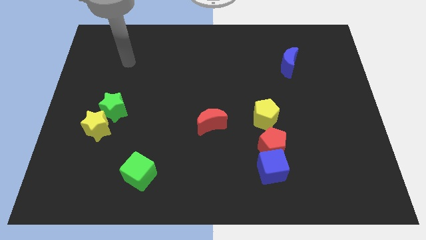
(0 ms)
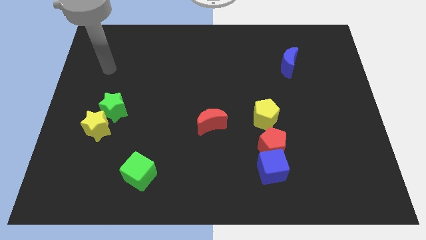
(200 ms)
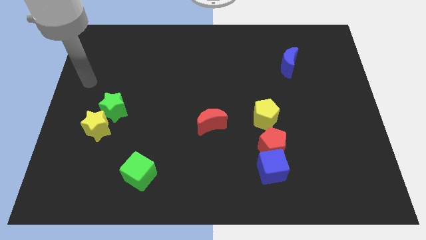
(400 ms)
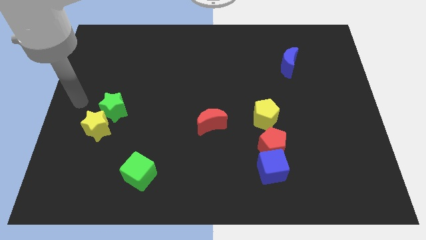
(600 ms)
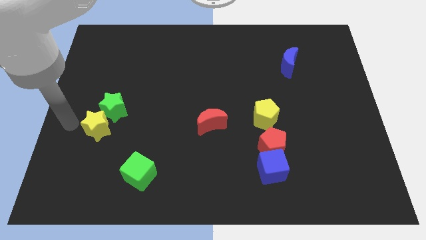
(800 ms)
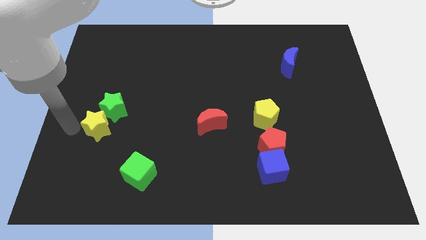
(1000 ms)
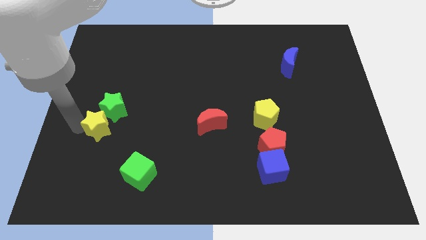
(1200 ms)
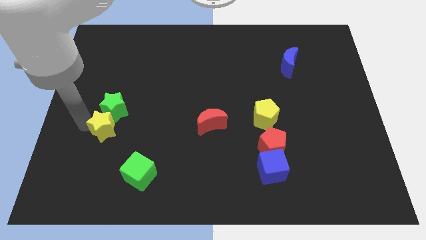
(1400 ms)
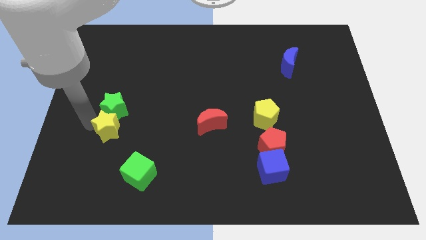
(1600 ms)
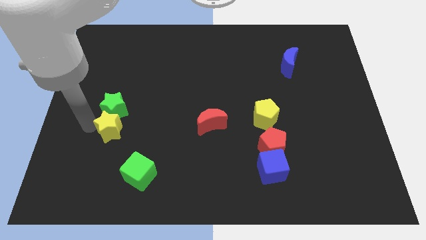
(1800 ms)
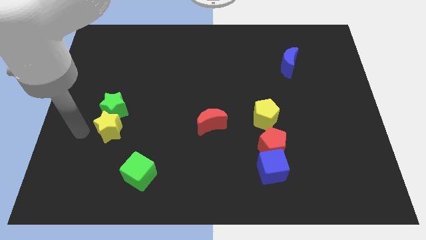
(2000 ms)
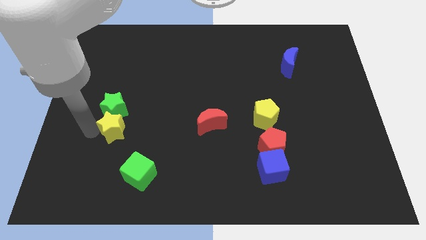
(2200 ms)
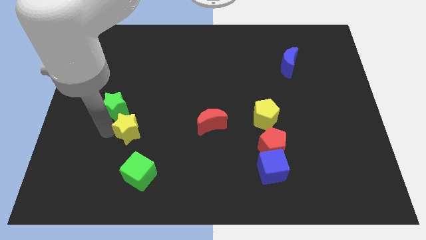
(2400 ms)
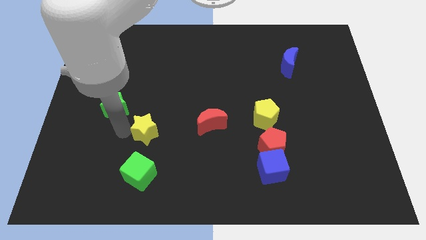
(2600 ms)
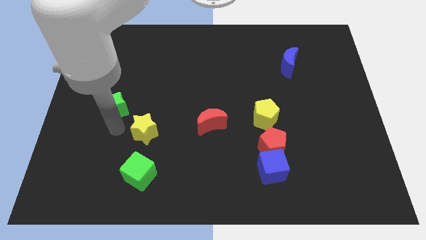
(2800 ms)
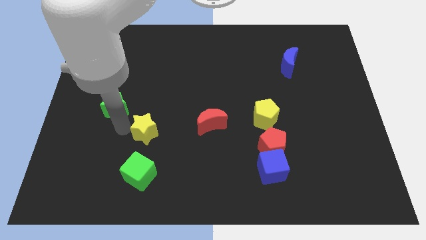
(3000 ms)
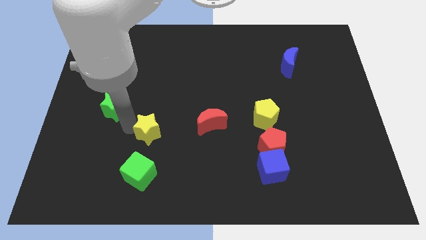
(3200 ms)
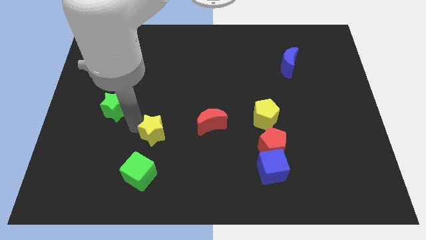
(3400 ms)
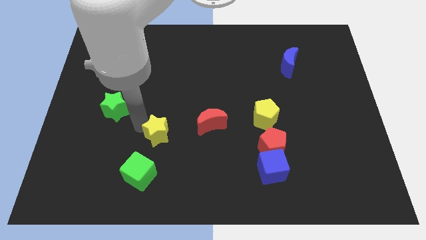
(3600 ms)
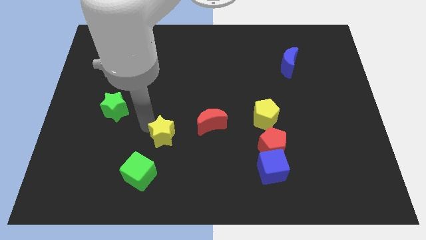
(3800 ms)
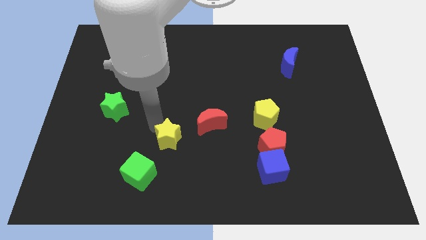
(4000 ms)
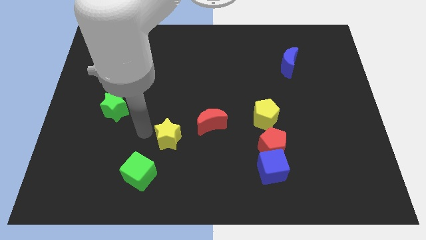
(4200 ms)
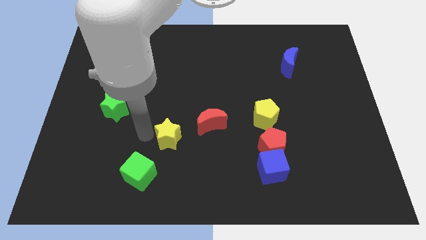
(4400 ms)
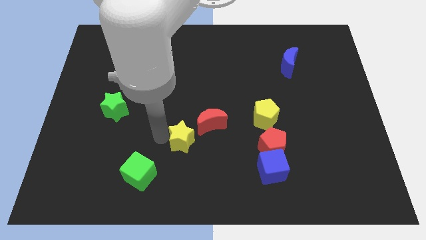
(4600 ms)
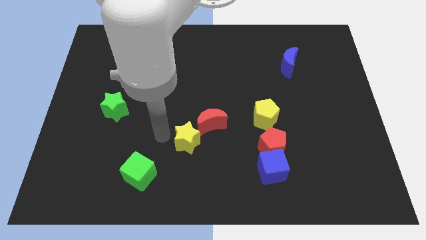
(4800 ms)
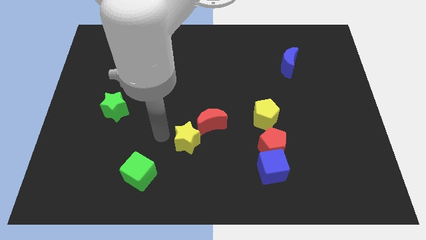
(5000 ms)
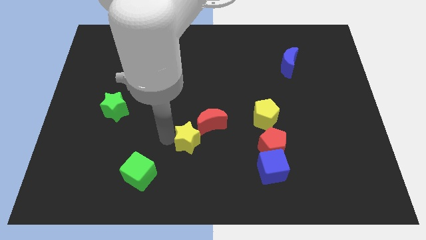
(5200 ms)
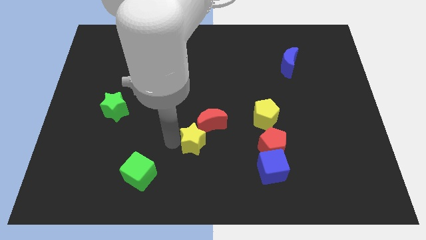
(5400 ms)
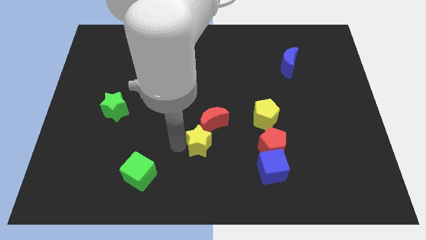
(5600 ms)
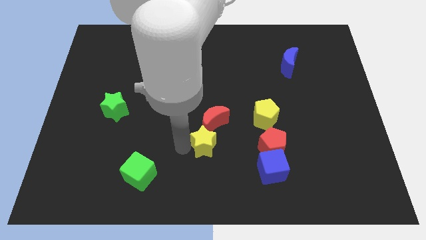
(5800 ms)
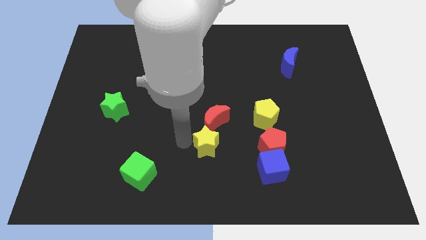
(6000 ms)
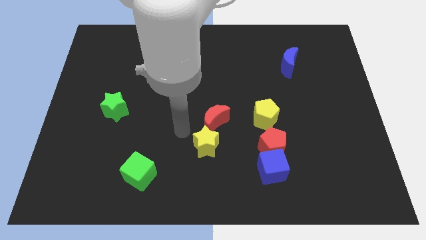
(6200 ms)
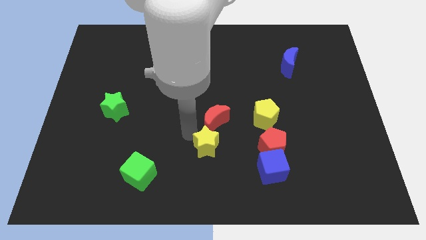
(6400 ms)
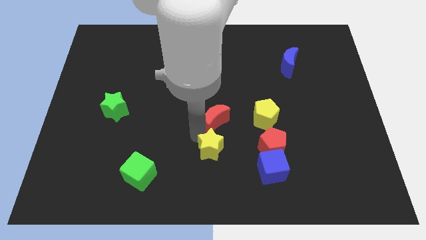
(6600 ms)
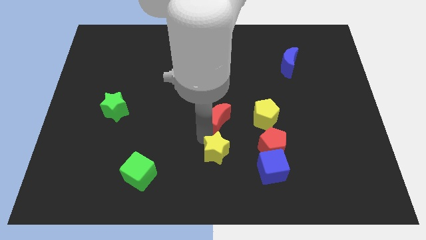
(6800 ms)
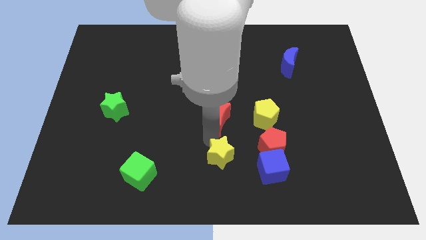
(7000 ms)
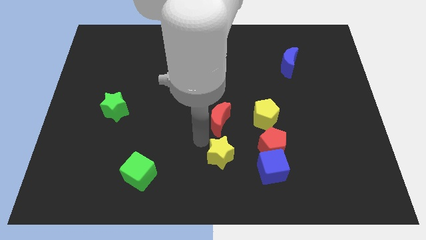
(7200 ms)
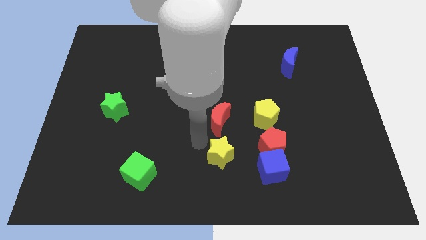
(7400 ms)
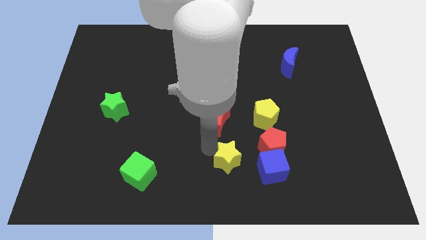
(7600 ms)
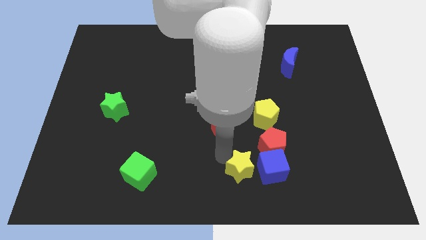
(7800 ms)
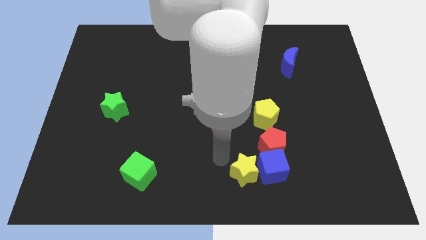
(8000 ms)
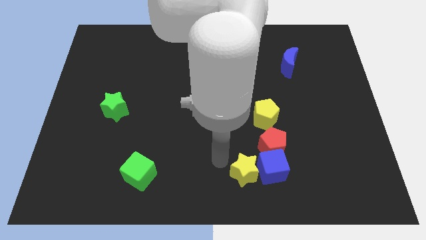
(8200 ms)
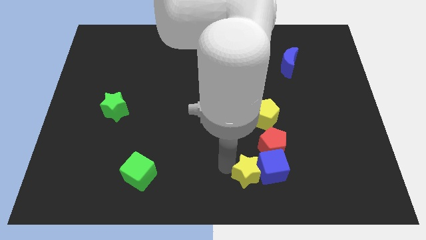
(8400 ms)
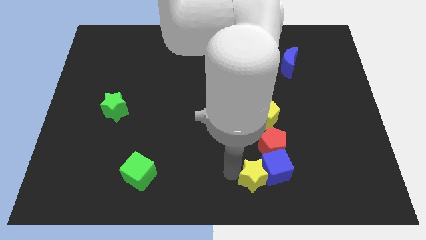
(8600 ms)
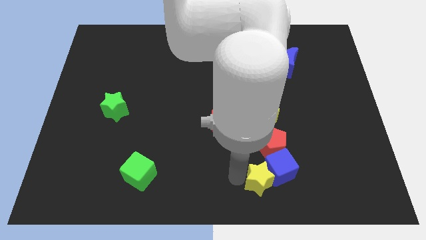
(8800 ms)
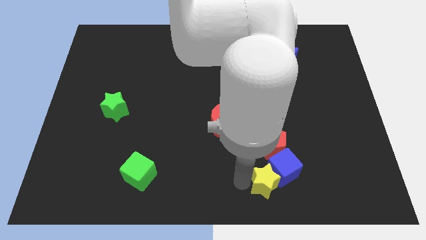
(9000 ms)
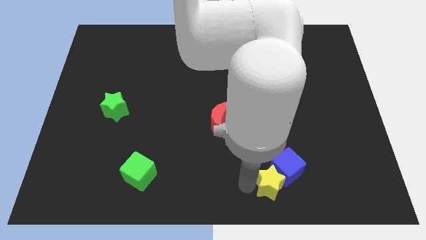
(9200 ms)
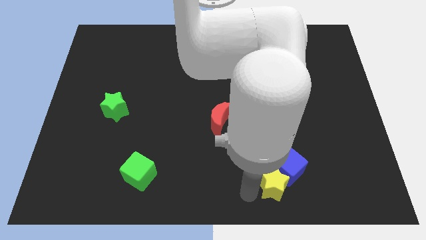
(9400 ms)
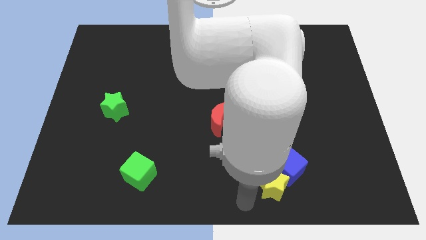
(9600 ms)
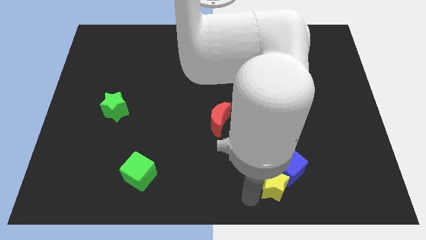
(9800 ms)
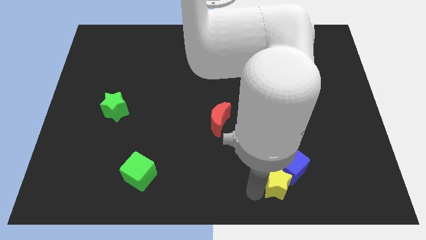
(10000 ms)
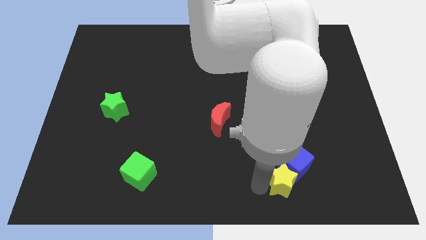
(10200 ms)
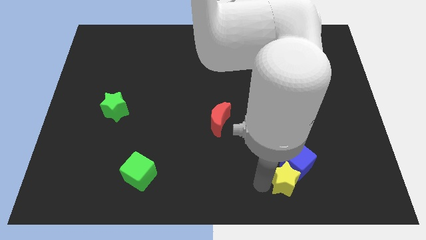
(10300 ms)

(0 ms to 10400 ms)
put the yellow star to the bottom right of the red pentagon

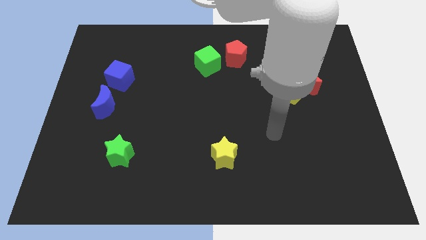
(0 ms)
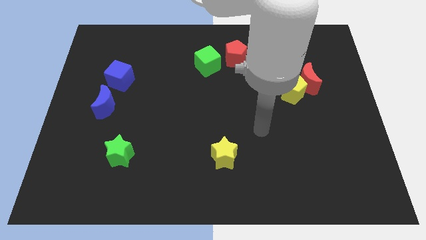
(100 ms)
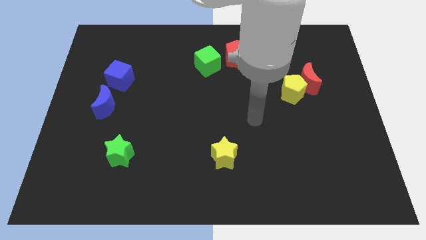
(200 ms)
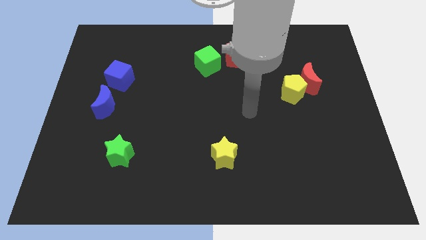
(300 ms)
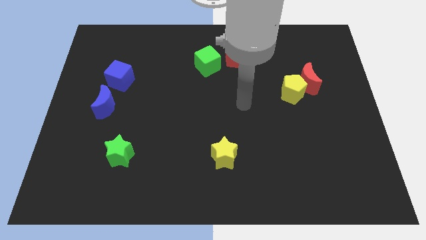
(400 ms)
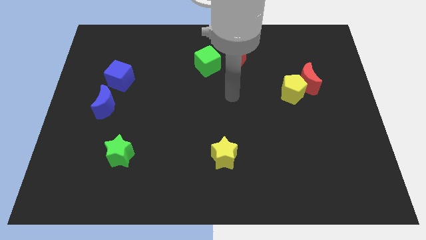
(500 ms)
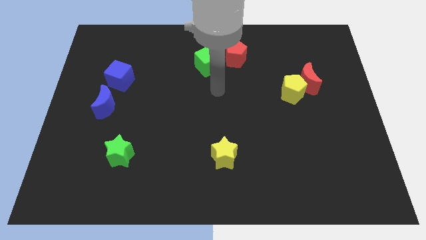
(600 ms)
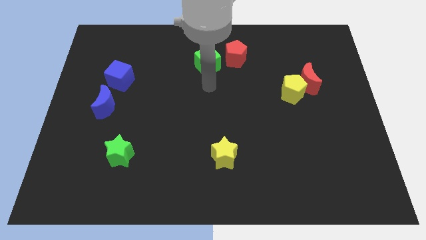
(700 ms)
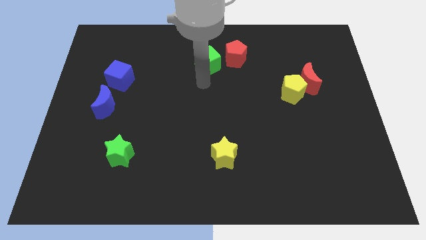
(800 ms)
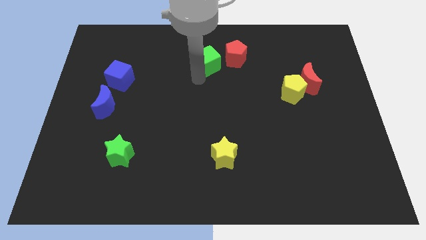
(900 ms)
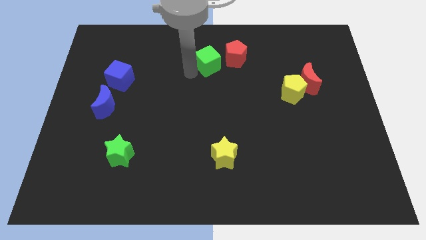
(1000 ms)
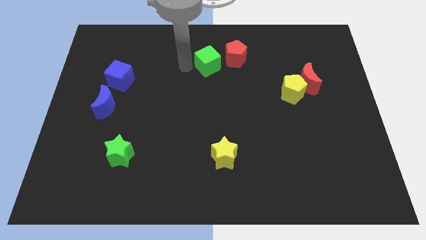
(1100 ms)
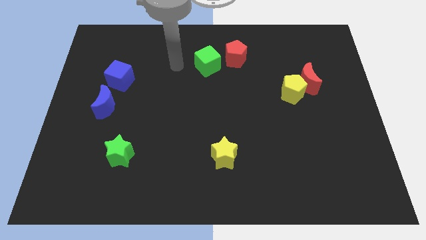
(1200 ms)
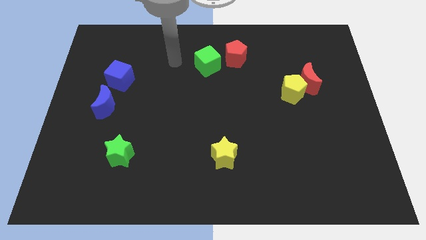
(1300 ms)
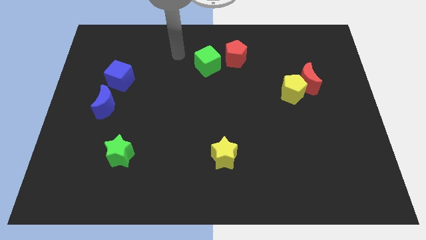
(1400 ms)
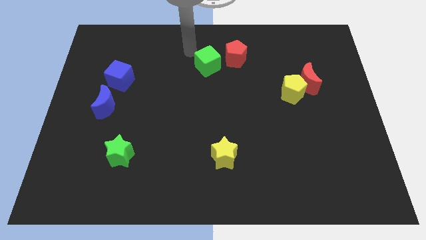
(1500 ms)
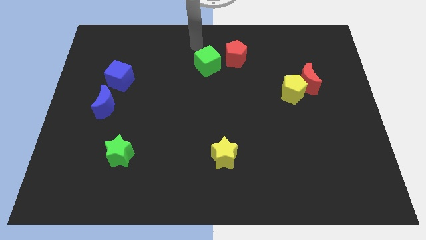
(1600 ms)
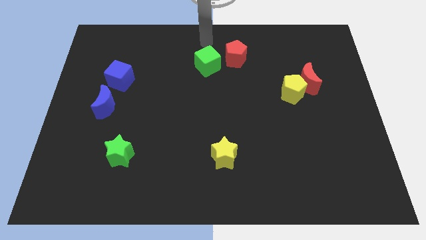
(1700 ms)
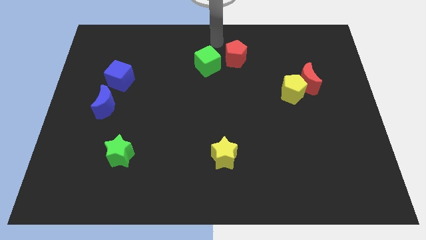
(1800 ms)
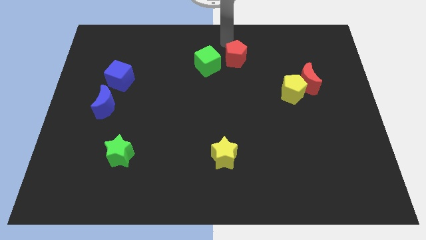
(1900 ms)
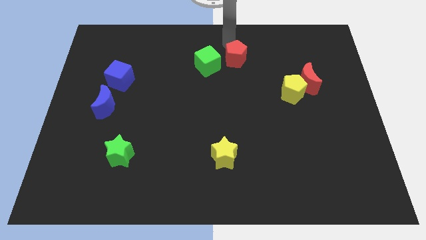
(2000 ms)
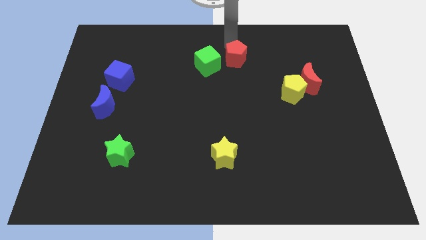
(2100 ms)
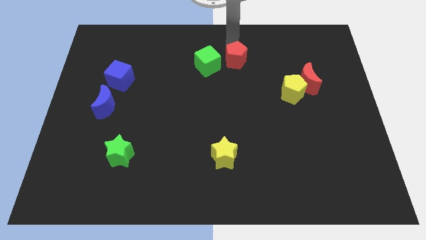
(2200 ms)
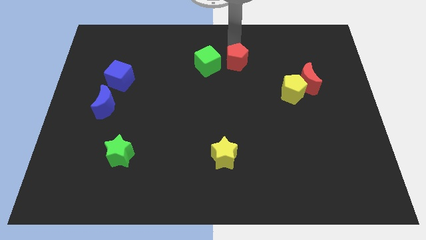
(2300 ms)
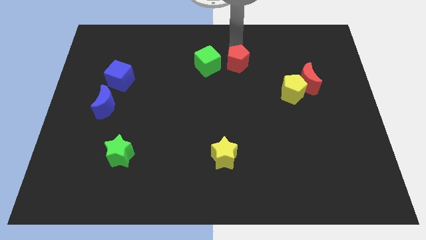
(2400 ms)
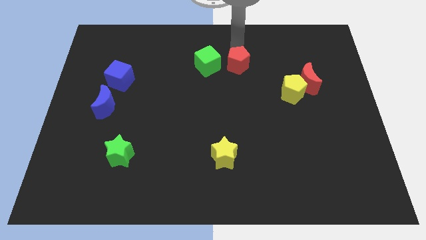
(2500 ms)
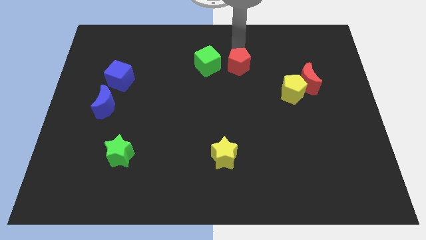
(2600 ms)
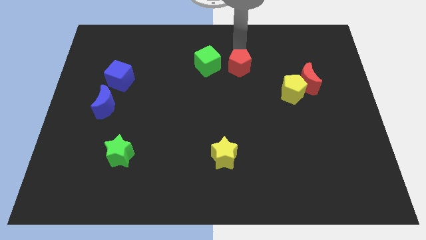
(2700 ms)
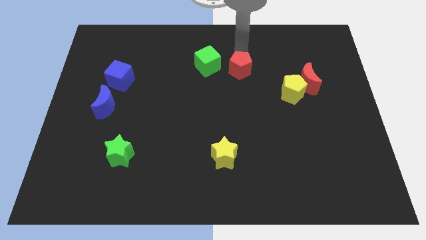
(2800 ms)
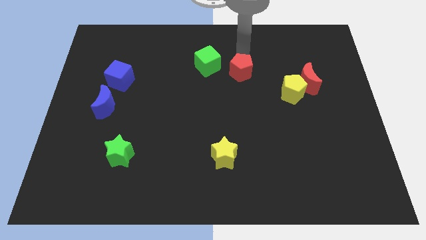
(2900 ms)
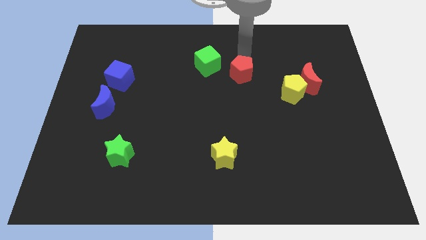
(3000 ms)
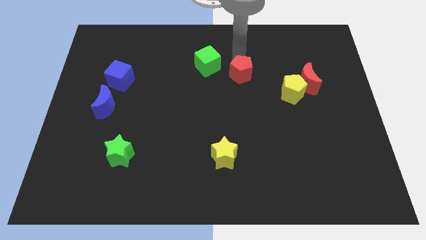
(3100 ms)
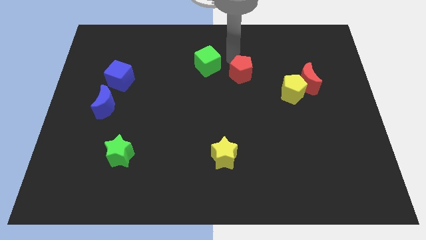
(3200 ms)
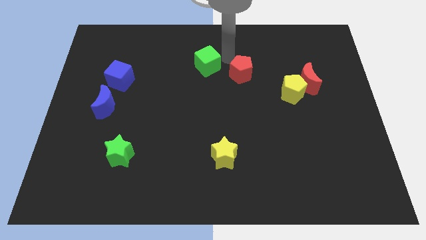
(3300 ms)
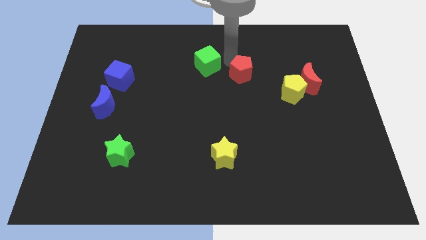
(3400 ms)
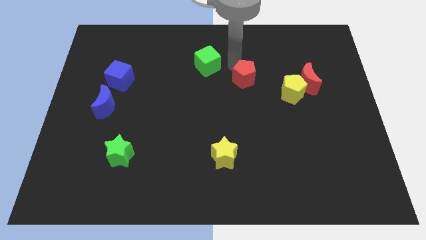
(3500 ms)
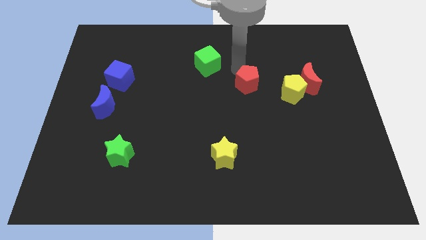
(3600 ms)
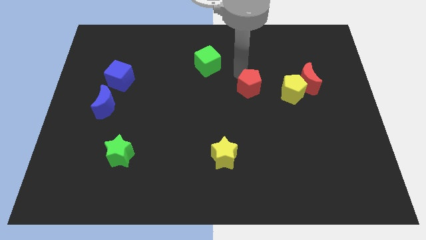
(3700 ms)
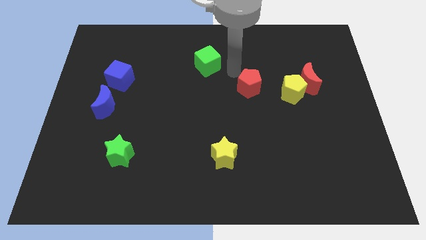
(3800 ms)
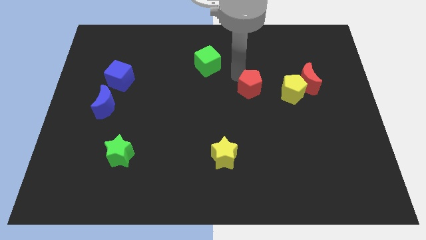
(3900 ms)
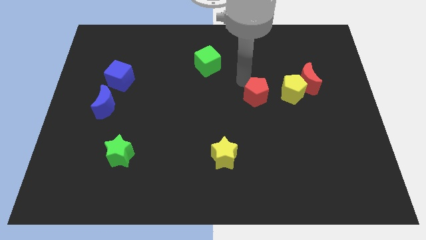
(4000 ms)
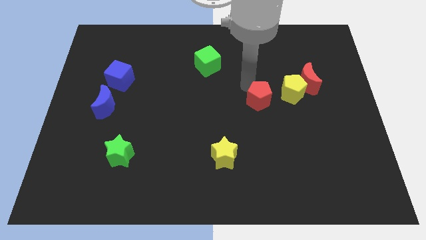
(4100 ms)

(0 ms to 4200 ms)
slide the red pentagon to the bottom left of the yellow pentagon
